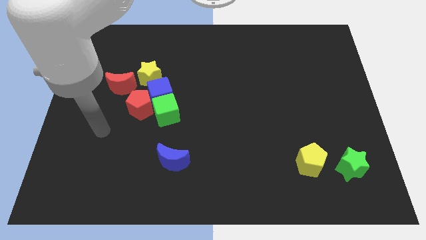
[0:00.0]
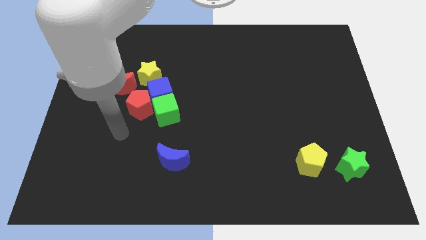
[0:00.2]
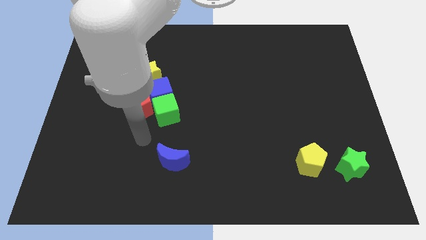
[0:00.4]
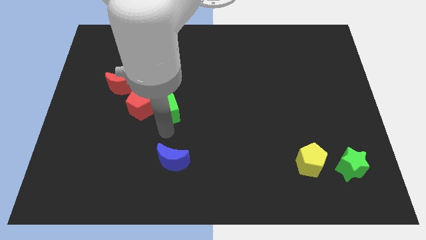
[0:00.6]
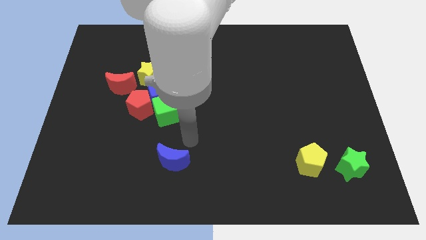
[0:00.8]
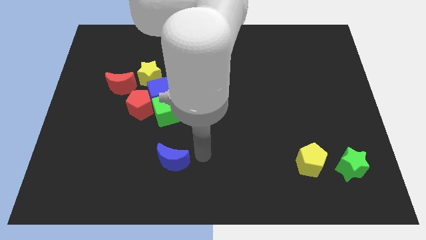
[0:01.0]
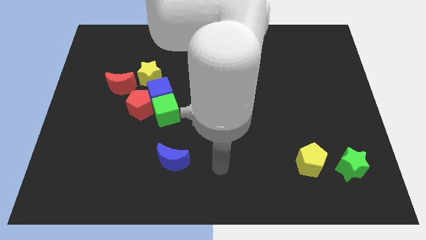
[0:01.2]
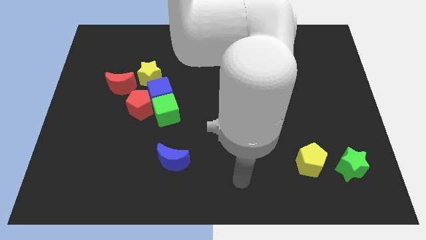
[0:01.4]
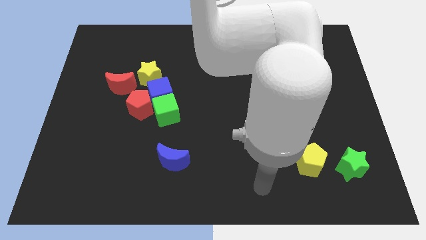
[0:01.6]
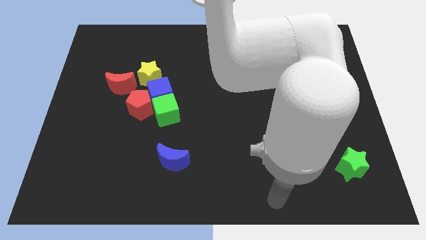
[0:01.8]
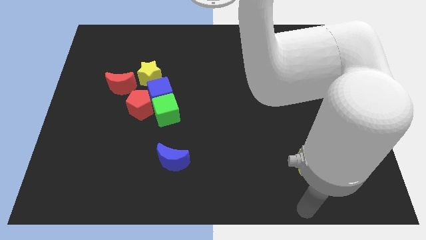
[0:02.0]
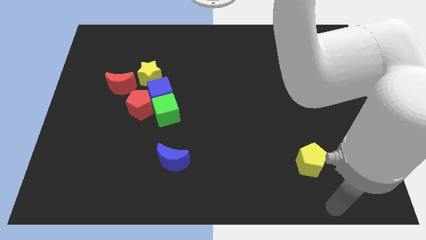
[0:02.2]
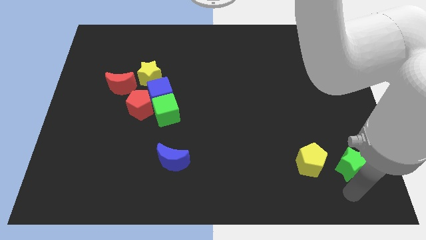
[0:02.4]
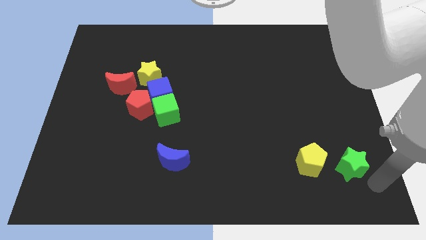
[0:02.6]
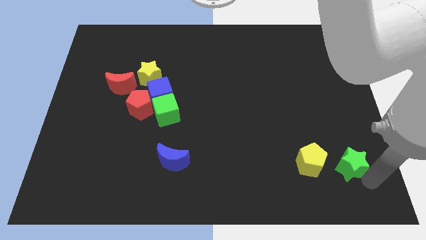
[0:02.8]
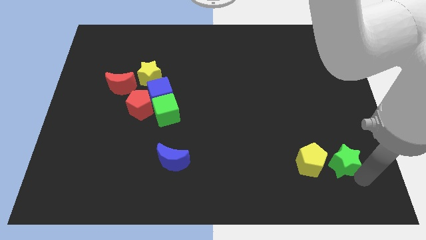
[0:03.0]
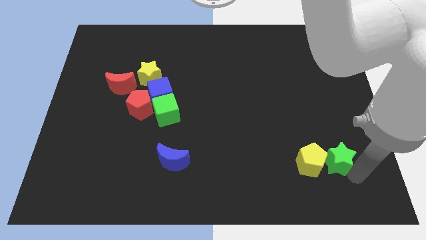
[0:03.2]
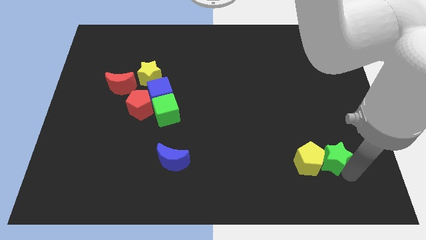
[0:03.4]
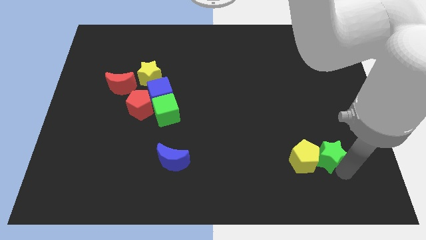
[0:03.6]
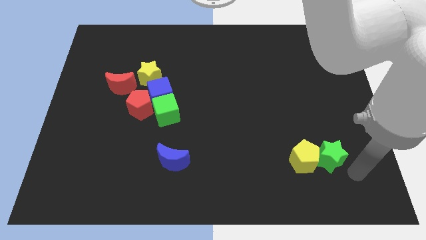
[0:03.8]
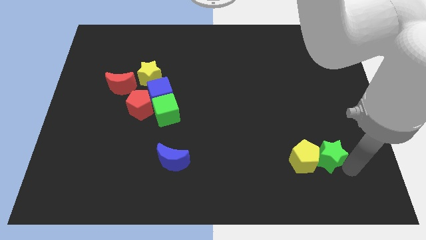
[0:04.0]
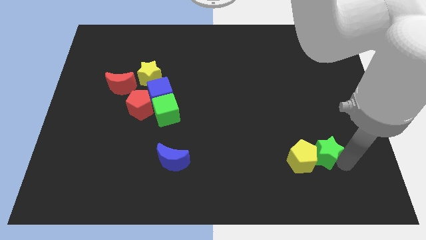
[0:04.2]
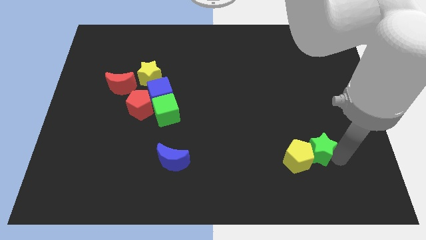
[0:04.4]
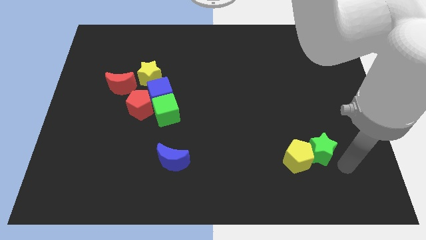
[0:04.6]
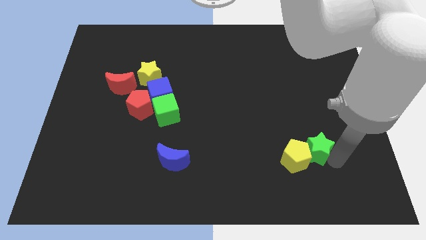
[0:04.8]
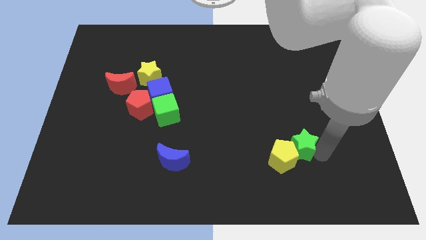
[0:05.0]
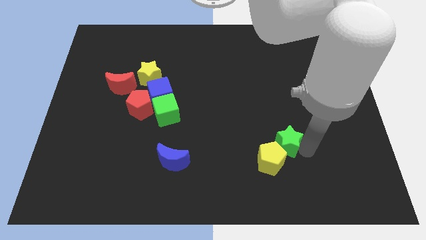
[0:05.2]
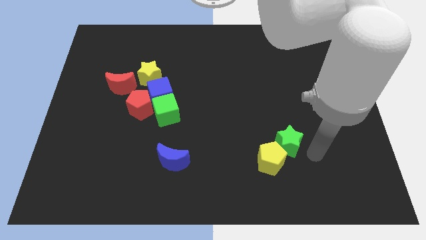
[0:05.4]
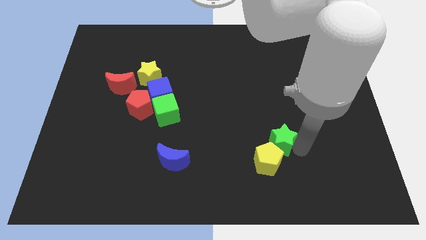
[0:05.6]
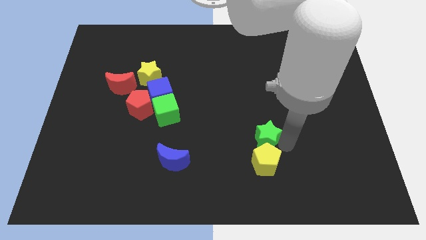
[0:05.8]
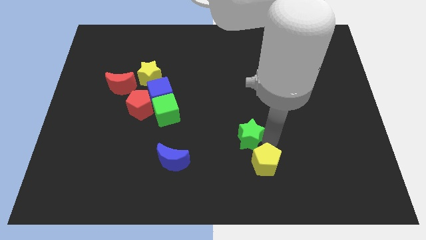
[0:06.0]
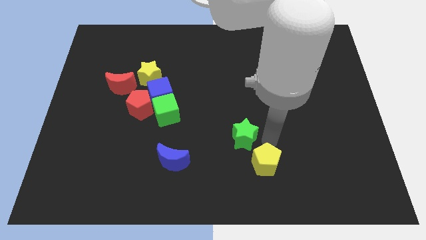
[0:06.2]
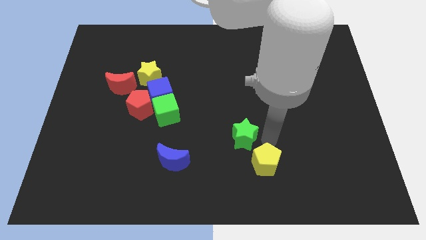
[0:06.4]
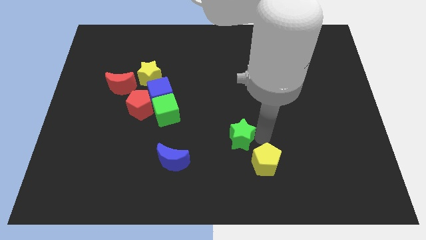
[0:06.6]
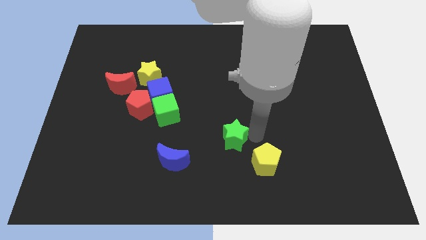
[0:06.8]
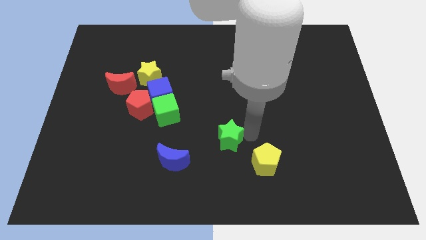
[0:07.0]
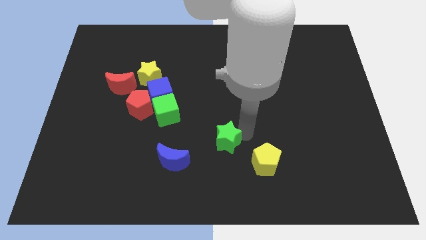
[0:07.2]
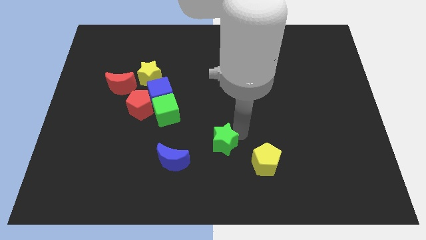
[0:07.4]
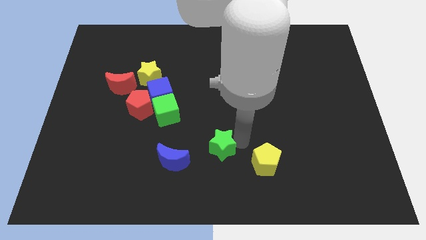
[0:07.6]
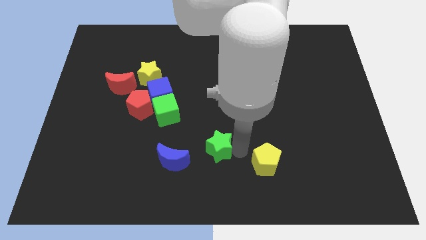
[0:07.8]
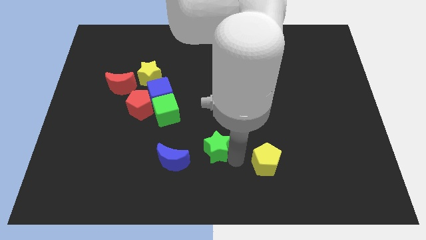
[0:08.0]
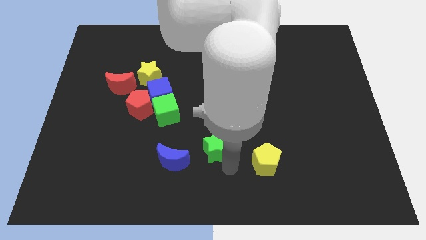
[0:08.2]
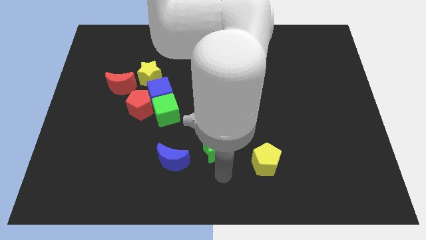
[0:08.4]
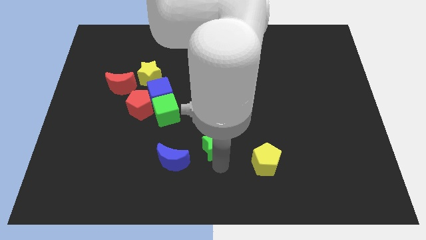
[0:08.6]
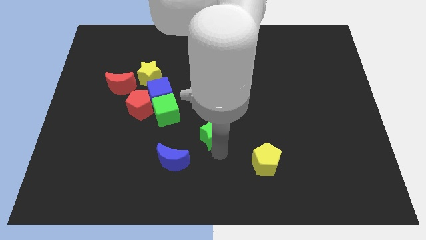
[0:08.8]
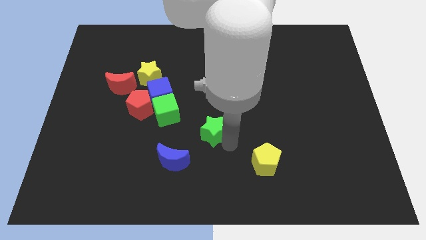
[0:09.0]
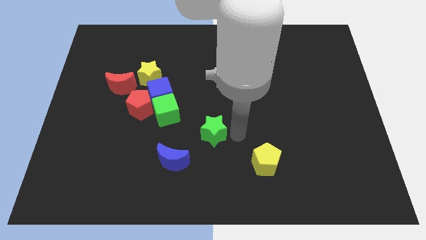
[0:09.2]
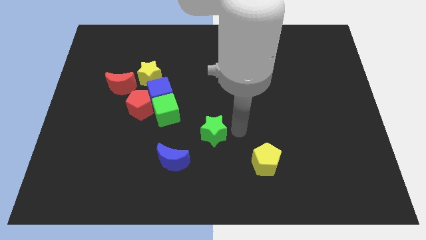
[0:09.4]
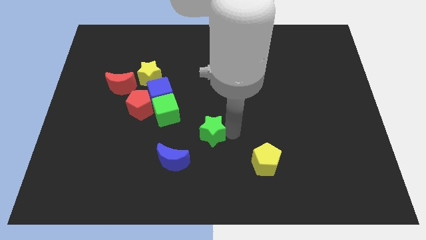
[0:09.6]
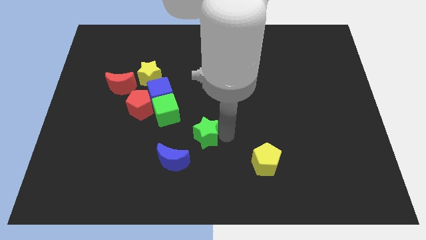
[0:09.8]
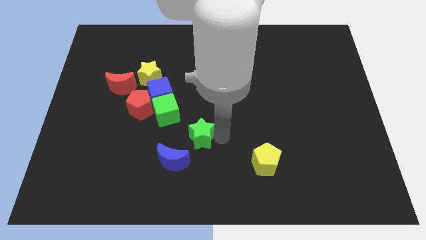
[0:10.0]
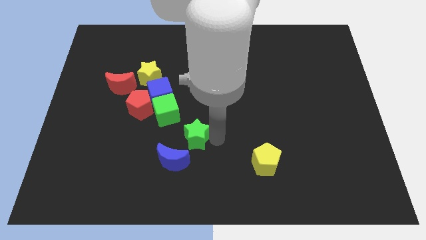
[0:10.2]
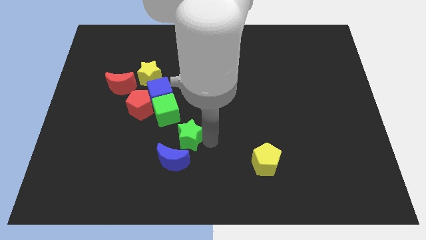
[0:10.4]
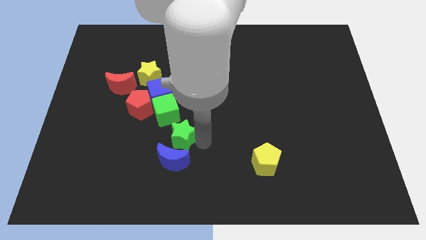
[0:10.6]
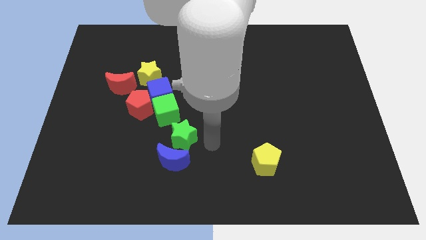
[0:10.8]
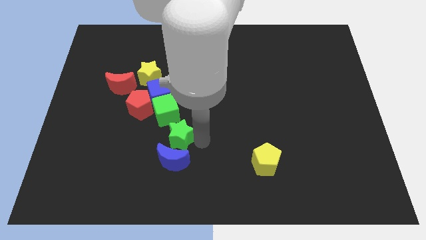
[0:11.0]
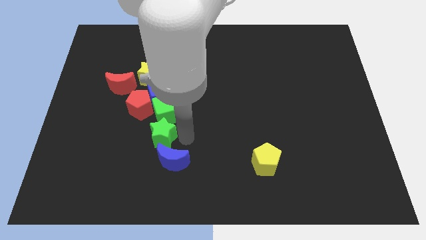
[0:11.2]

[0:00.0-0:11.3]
push the green star diagonally down and to the left of the green cube

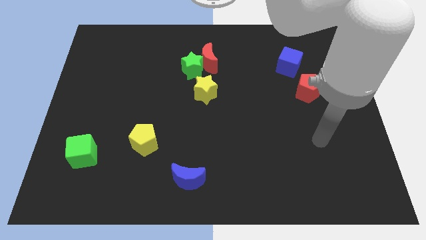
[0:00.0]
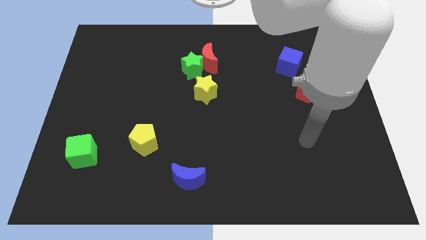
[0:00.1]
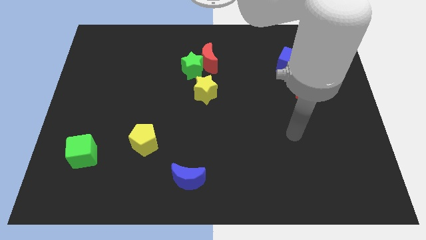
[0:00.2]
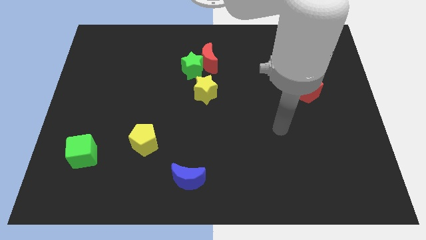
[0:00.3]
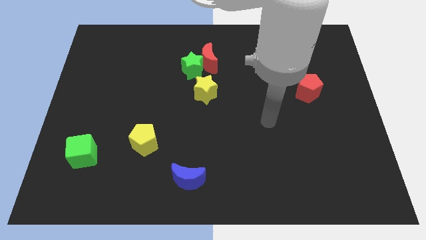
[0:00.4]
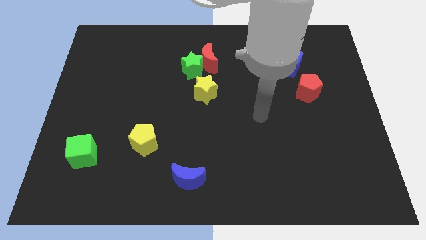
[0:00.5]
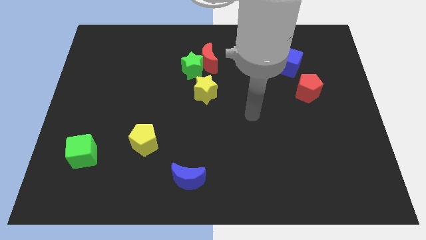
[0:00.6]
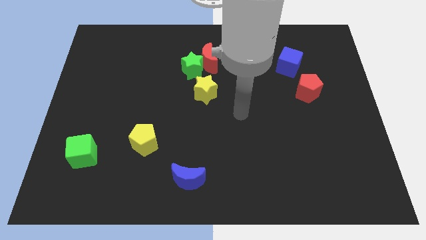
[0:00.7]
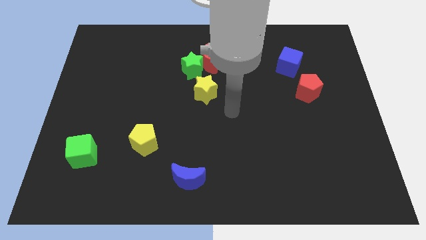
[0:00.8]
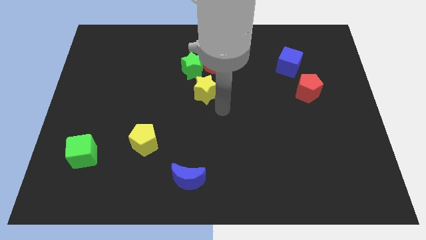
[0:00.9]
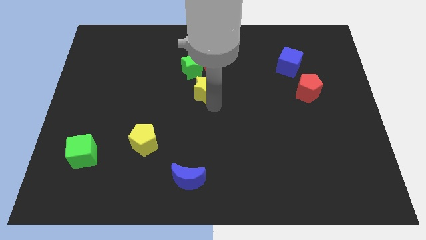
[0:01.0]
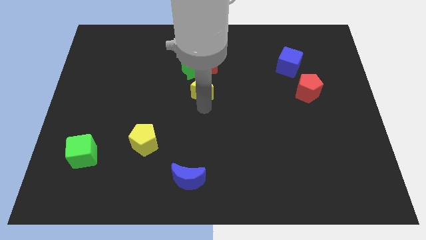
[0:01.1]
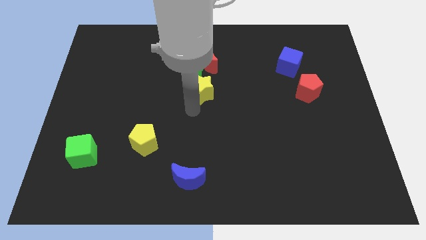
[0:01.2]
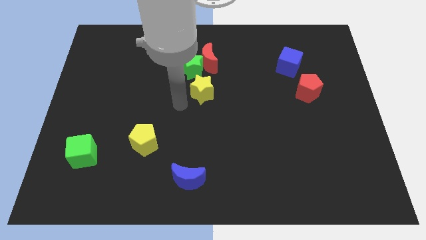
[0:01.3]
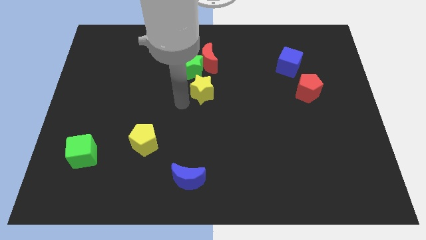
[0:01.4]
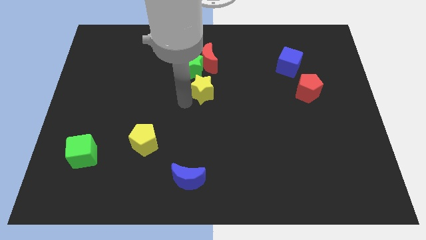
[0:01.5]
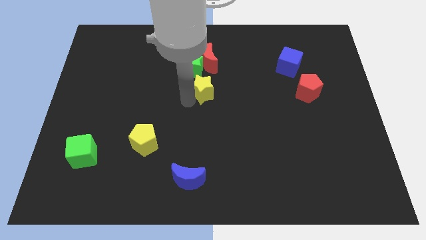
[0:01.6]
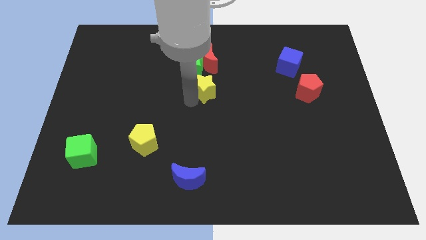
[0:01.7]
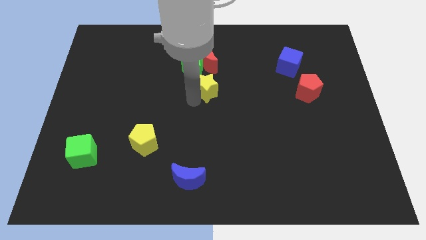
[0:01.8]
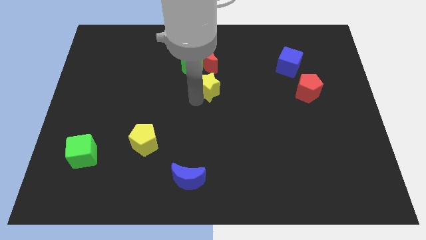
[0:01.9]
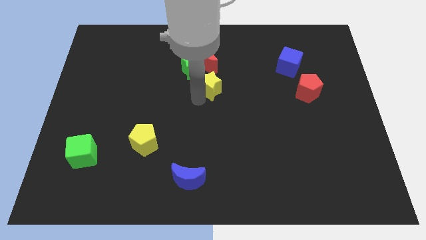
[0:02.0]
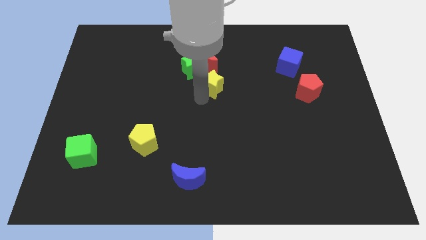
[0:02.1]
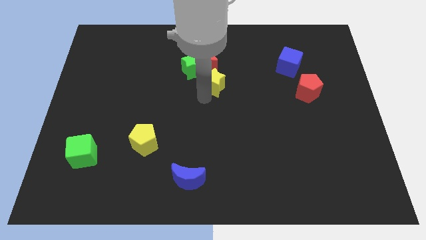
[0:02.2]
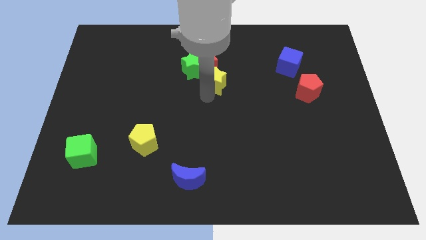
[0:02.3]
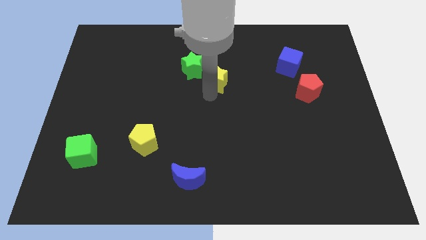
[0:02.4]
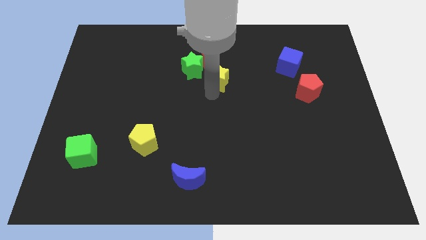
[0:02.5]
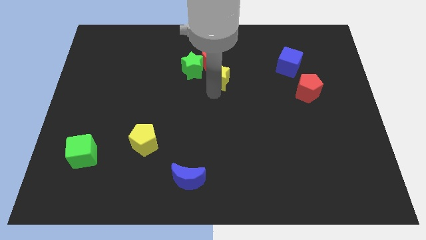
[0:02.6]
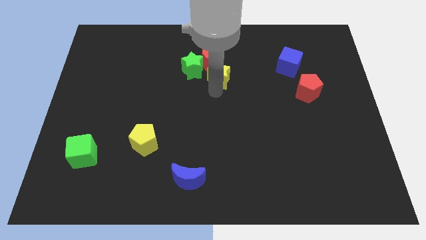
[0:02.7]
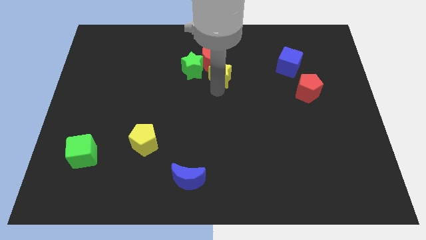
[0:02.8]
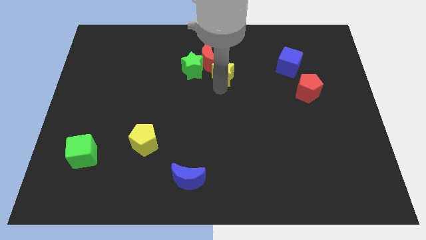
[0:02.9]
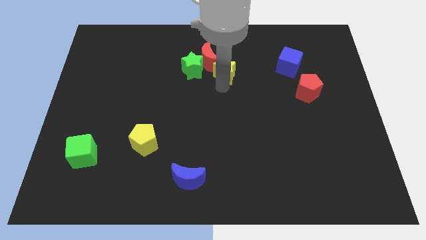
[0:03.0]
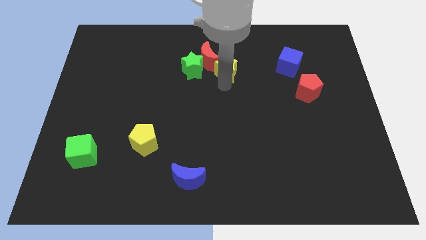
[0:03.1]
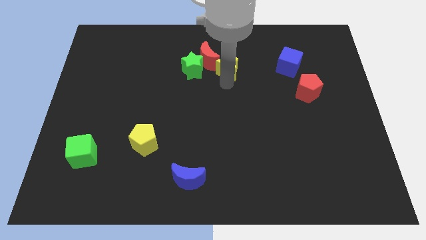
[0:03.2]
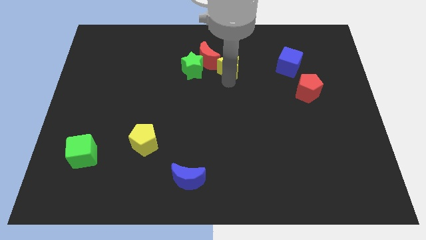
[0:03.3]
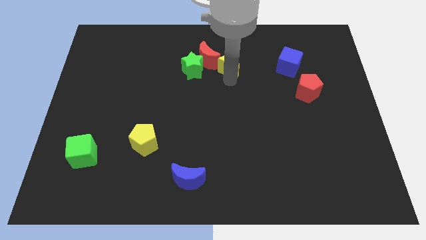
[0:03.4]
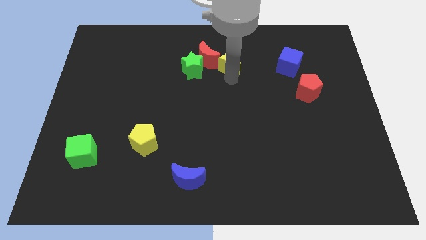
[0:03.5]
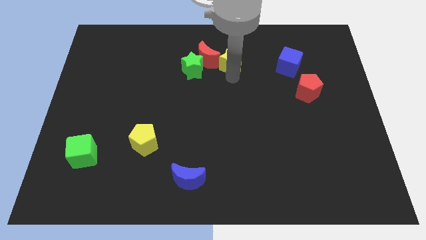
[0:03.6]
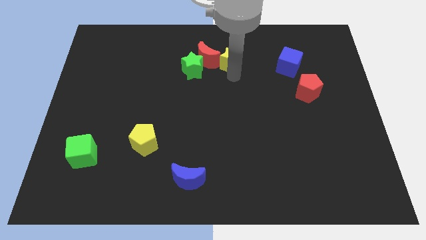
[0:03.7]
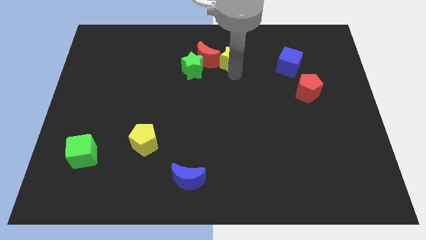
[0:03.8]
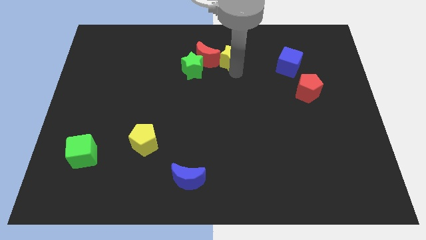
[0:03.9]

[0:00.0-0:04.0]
move the yellow star to the top right side of the green star
